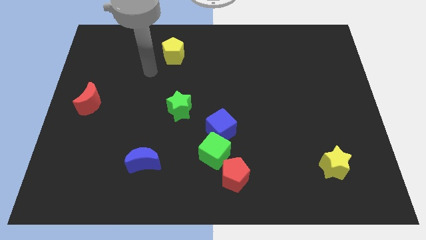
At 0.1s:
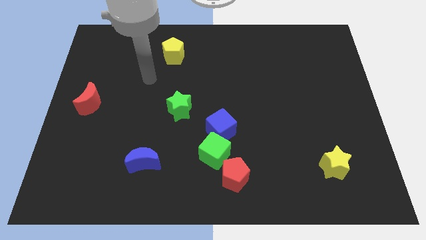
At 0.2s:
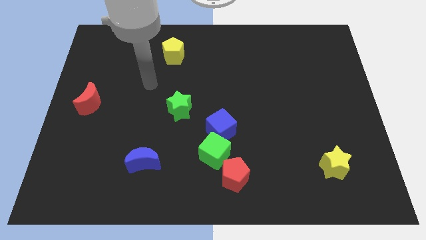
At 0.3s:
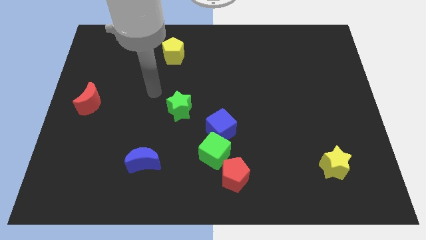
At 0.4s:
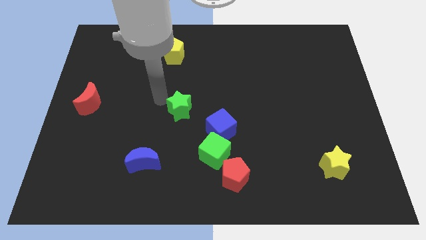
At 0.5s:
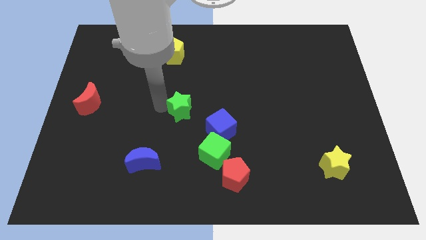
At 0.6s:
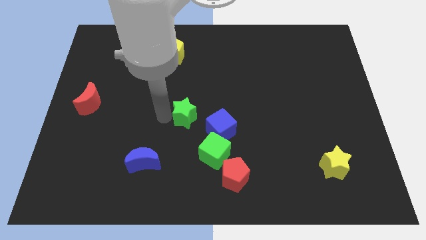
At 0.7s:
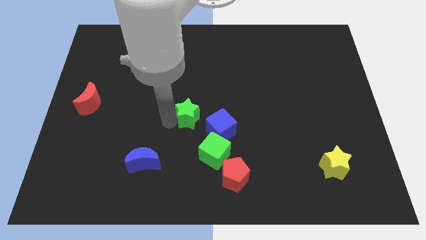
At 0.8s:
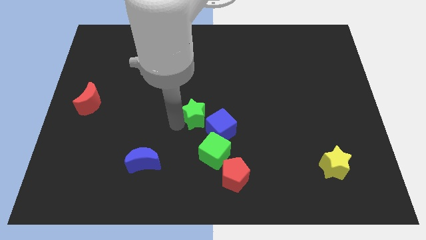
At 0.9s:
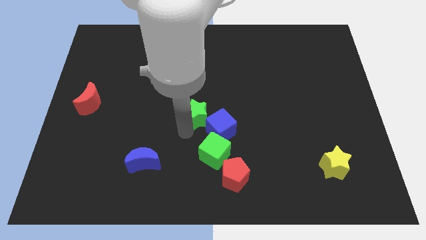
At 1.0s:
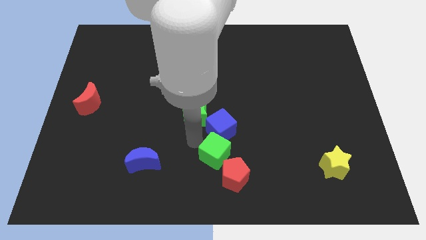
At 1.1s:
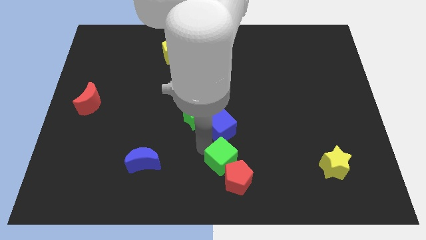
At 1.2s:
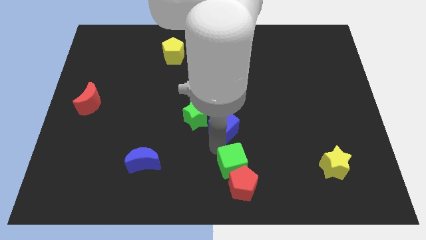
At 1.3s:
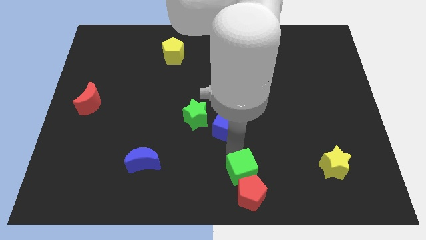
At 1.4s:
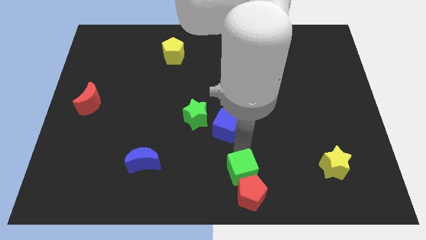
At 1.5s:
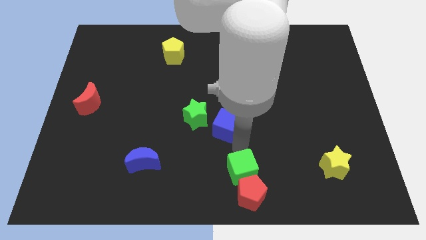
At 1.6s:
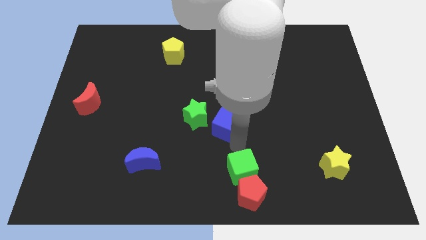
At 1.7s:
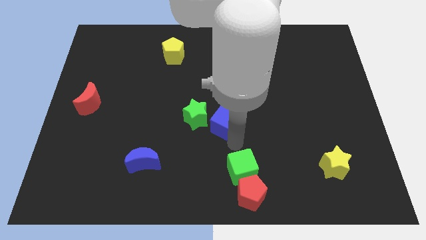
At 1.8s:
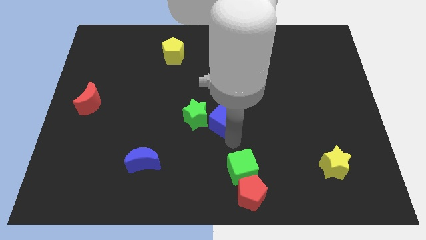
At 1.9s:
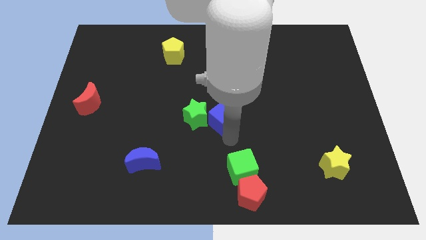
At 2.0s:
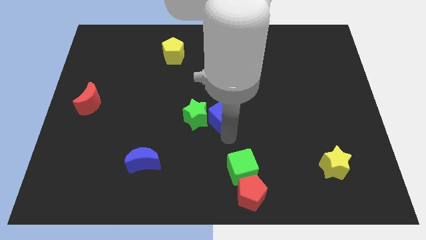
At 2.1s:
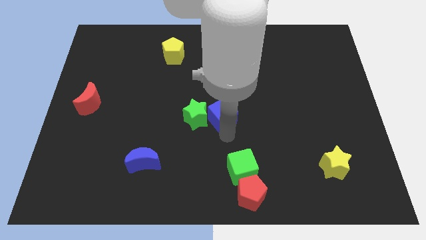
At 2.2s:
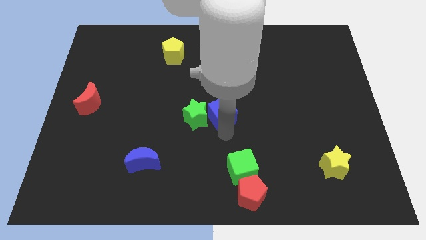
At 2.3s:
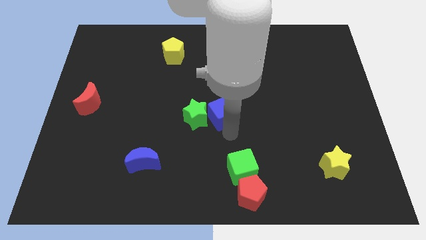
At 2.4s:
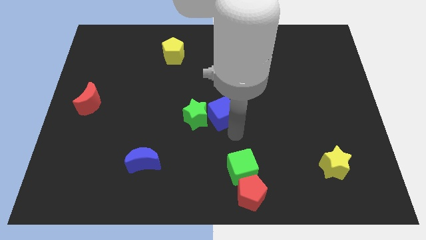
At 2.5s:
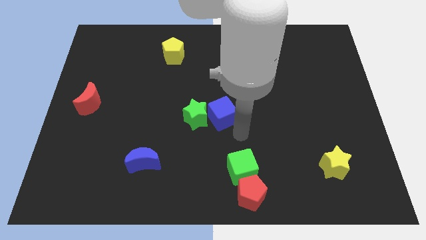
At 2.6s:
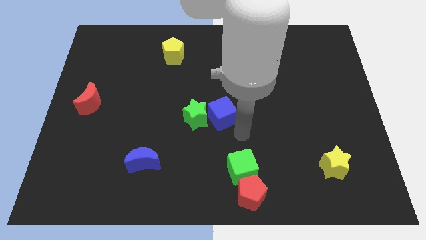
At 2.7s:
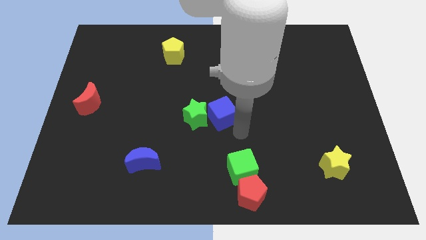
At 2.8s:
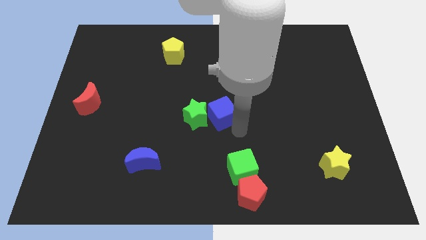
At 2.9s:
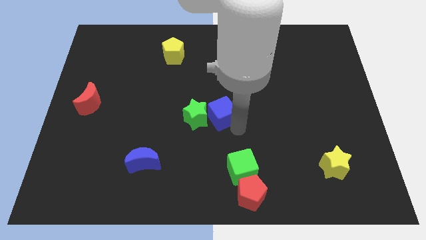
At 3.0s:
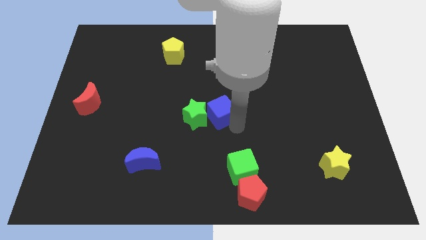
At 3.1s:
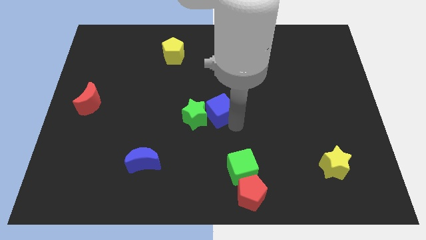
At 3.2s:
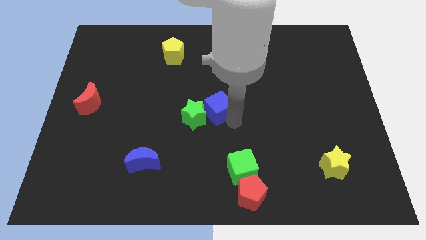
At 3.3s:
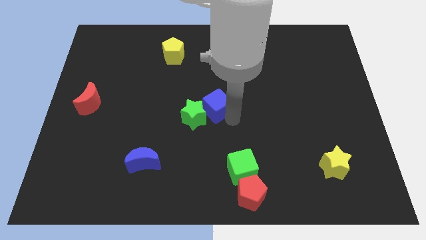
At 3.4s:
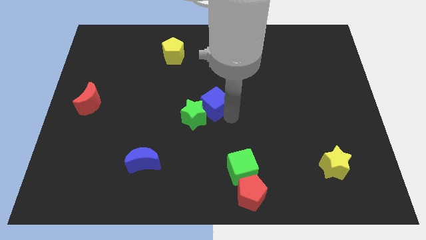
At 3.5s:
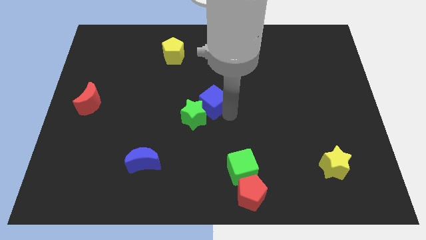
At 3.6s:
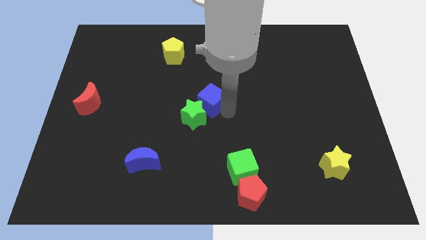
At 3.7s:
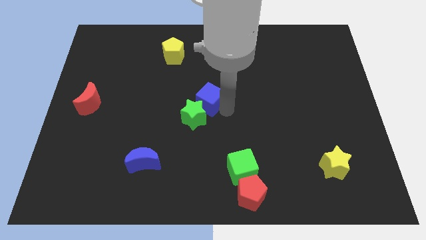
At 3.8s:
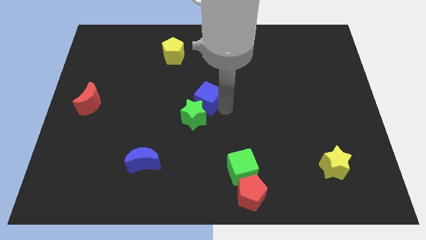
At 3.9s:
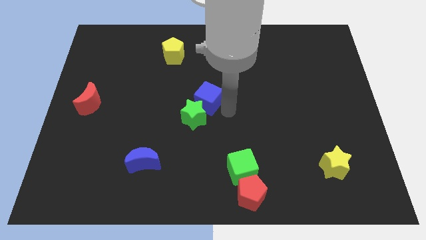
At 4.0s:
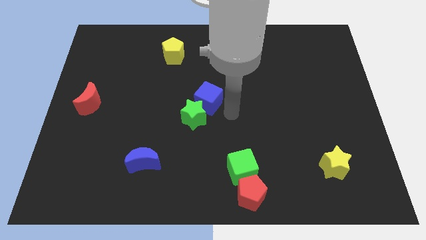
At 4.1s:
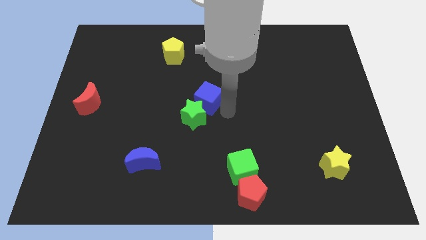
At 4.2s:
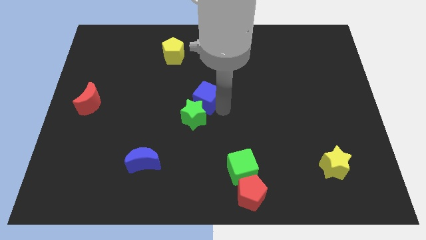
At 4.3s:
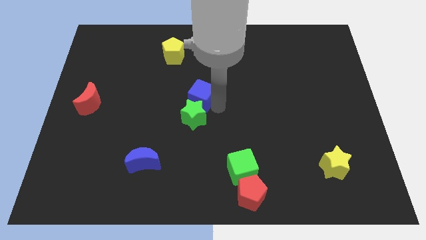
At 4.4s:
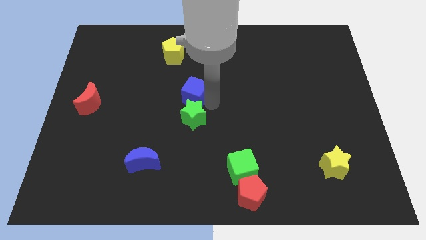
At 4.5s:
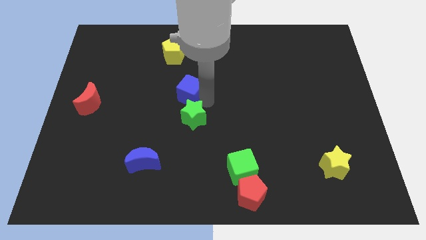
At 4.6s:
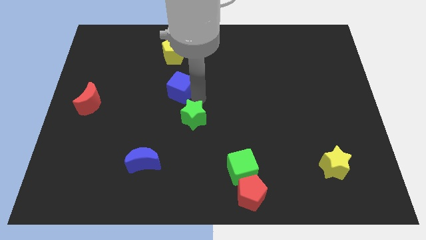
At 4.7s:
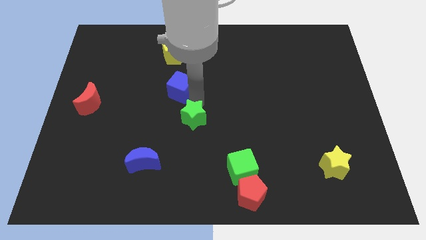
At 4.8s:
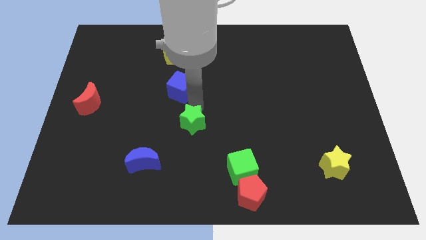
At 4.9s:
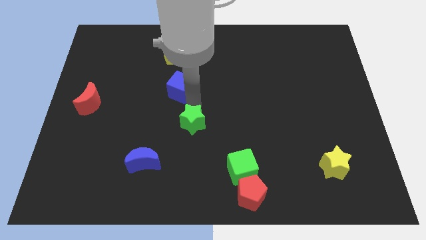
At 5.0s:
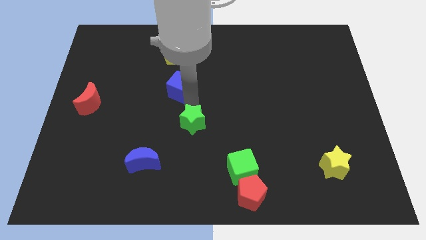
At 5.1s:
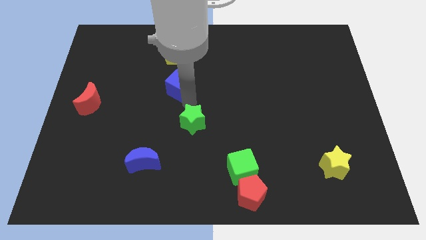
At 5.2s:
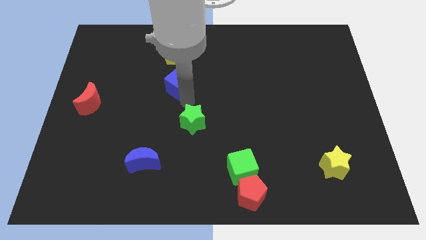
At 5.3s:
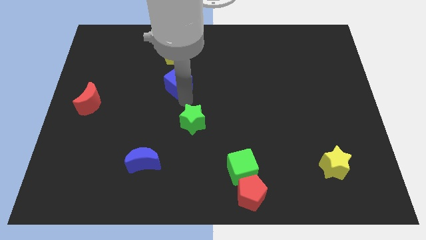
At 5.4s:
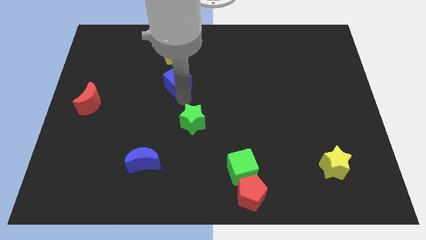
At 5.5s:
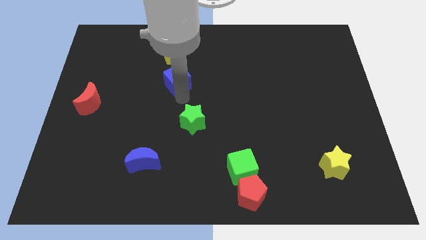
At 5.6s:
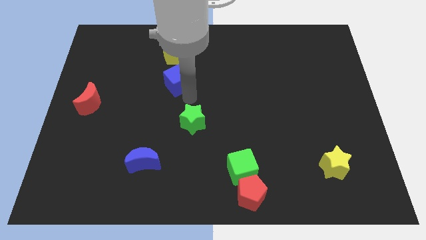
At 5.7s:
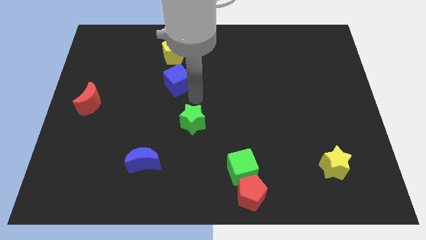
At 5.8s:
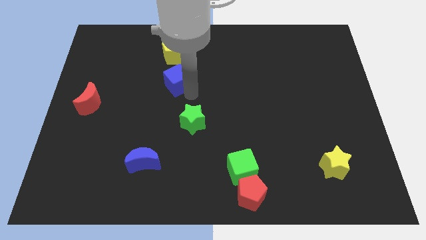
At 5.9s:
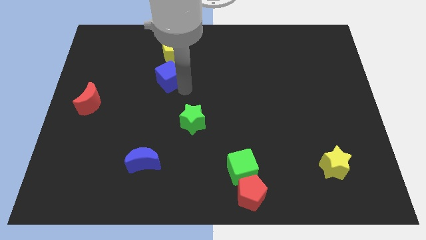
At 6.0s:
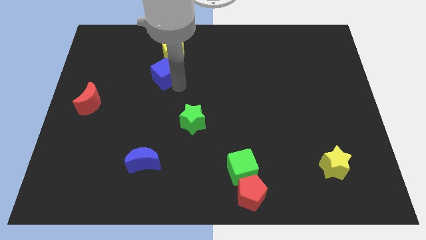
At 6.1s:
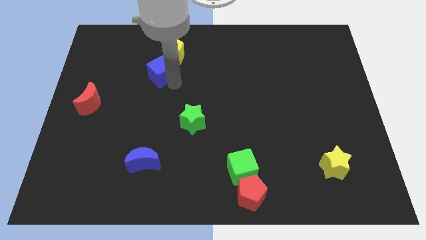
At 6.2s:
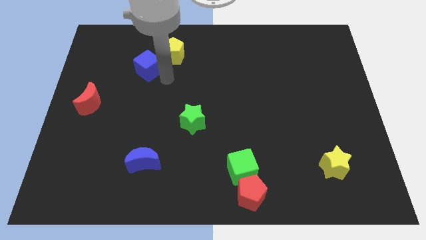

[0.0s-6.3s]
put the blue cube just left of the yellow pentagon

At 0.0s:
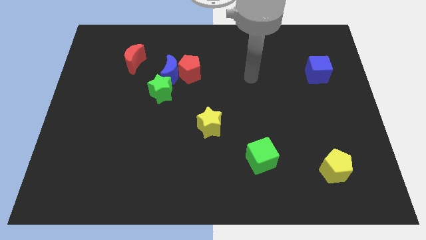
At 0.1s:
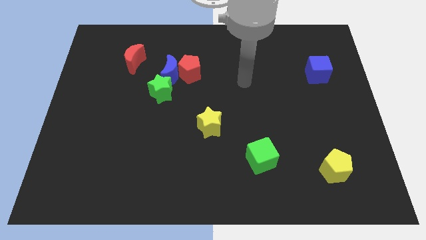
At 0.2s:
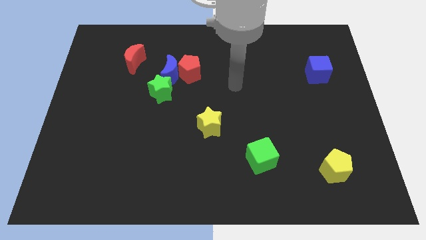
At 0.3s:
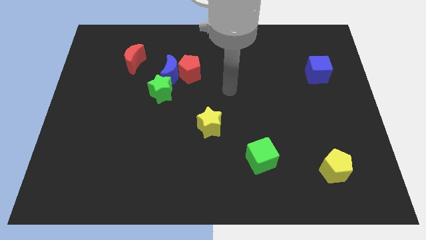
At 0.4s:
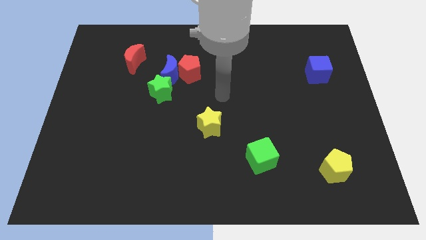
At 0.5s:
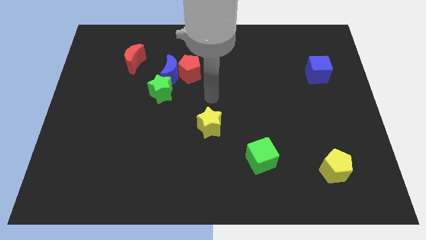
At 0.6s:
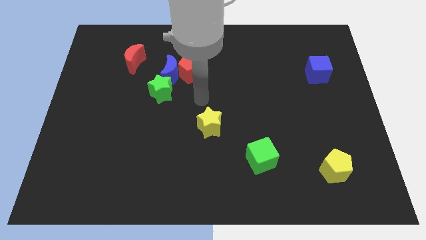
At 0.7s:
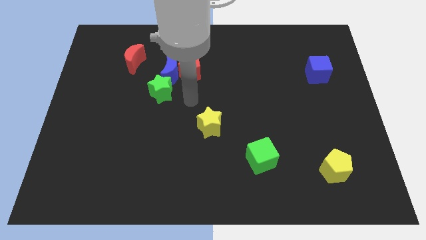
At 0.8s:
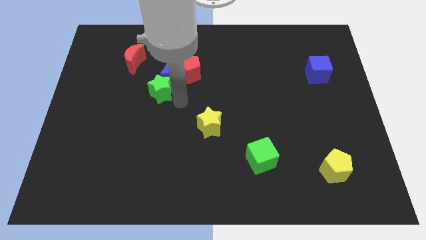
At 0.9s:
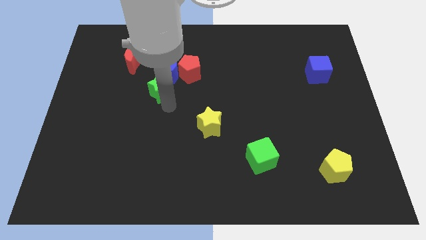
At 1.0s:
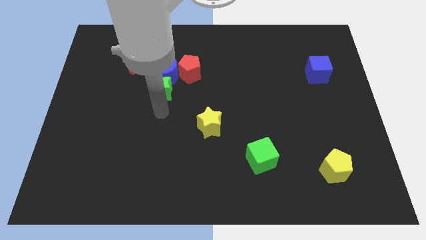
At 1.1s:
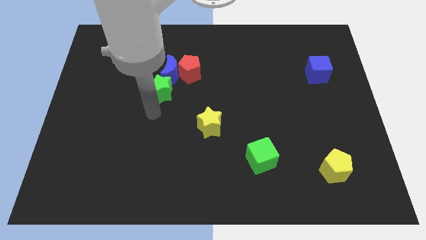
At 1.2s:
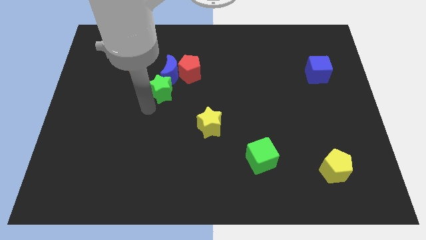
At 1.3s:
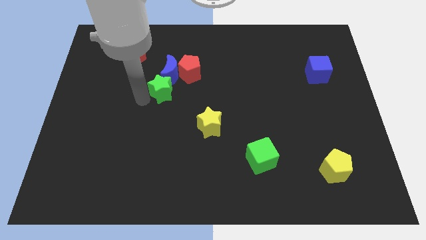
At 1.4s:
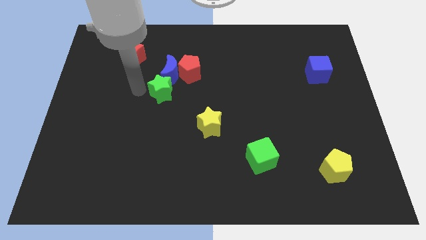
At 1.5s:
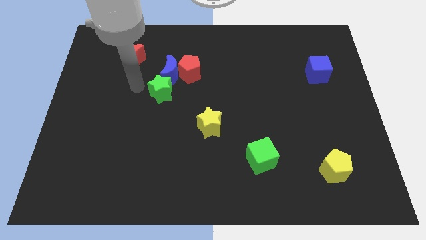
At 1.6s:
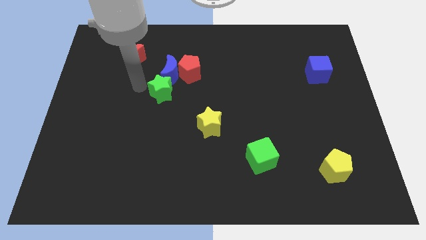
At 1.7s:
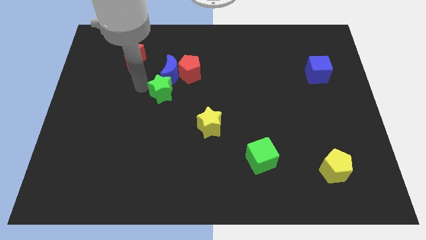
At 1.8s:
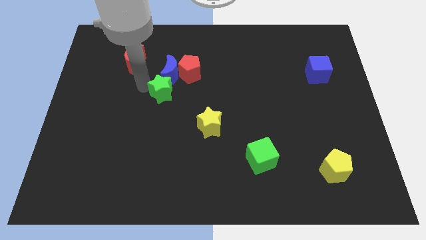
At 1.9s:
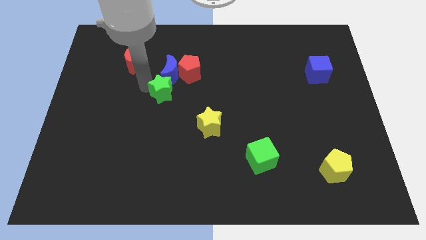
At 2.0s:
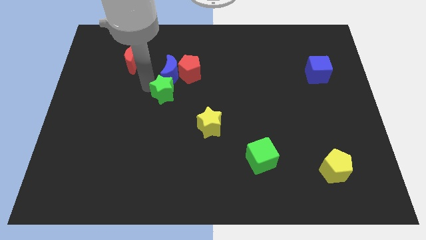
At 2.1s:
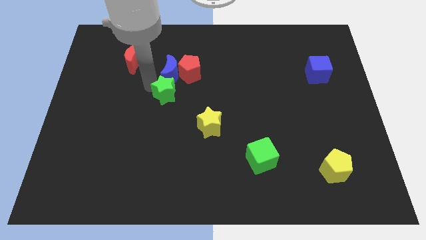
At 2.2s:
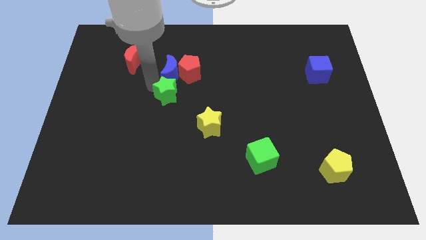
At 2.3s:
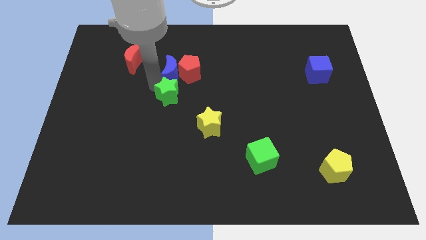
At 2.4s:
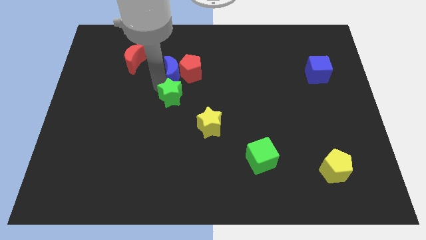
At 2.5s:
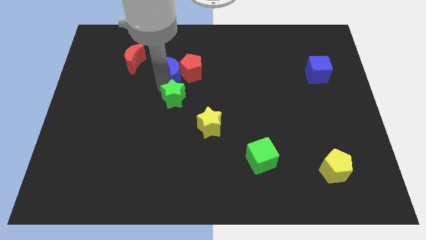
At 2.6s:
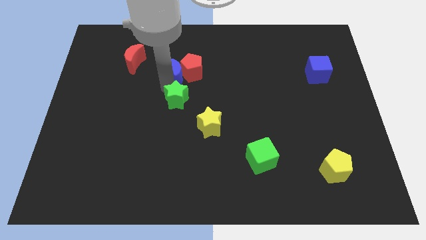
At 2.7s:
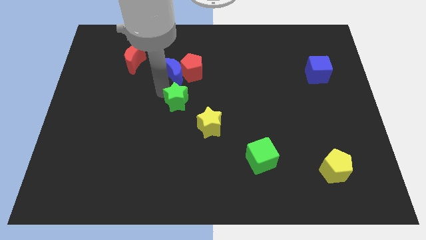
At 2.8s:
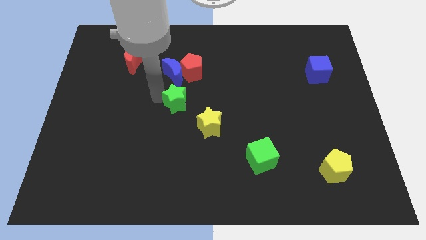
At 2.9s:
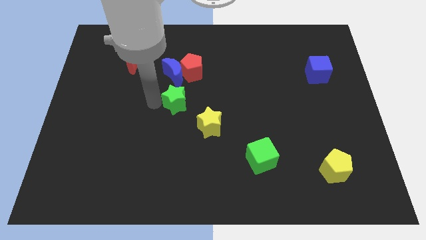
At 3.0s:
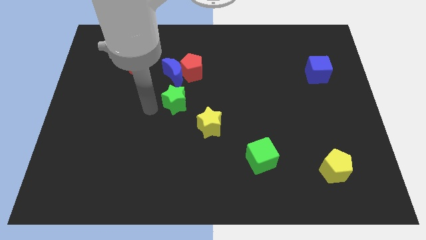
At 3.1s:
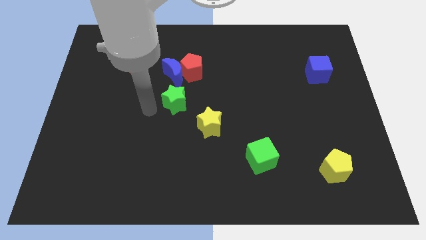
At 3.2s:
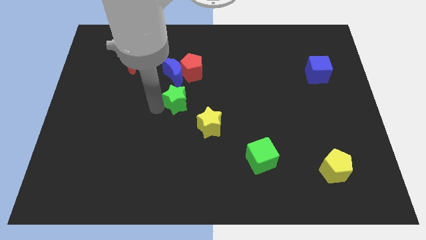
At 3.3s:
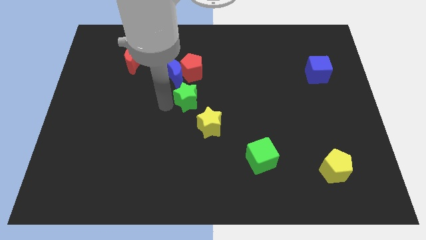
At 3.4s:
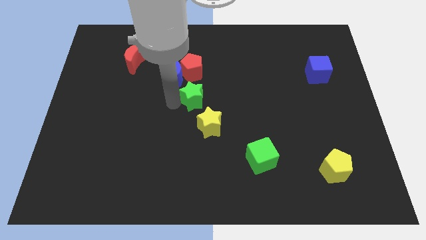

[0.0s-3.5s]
slide the green star above the yellow star
